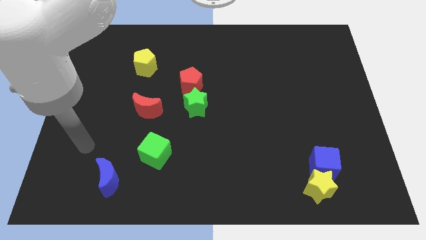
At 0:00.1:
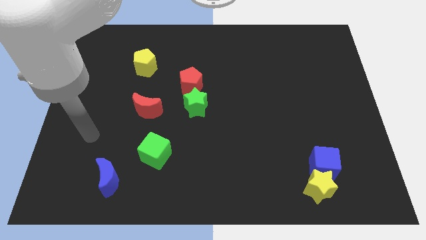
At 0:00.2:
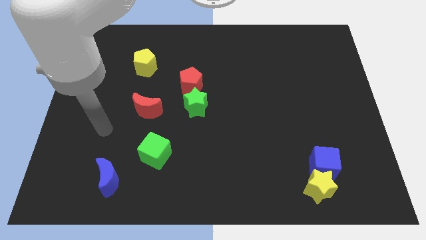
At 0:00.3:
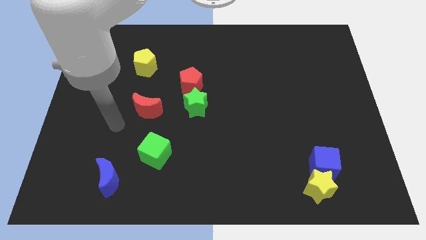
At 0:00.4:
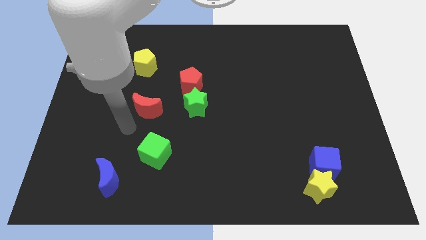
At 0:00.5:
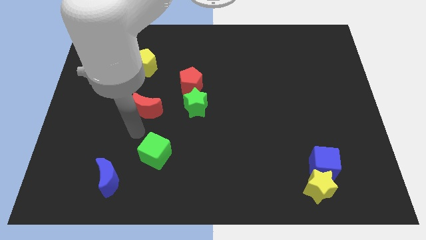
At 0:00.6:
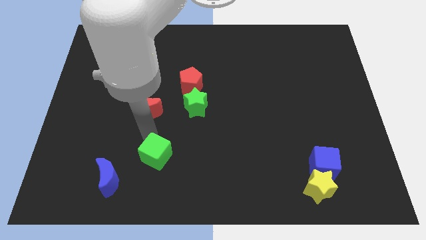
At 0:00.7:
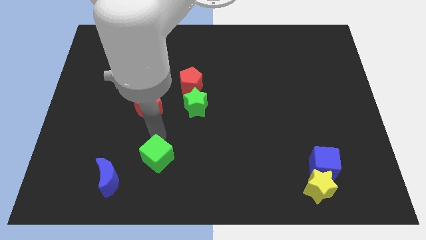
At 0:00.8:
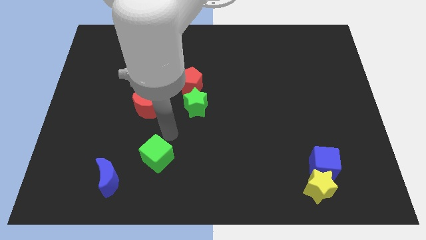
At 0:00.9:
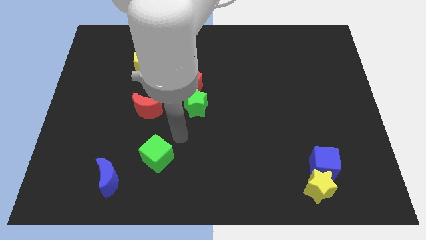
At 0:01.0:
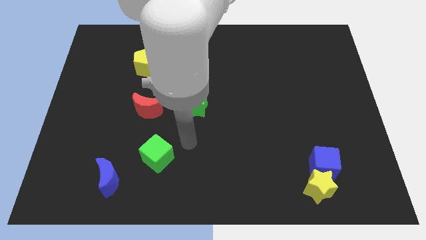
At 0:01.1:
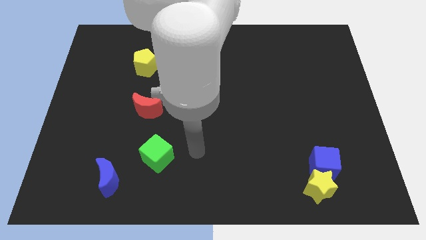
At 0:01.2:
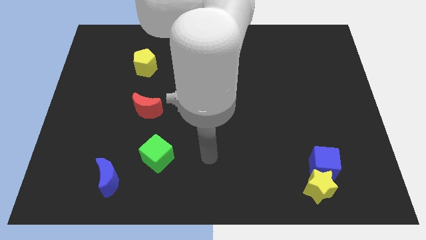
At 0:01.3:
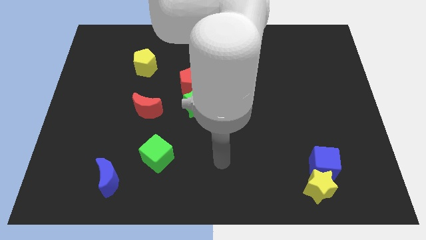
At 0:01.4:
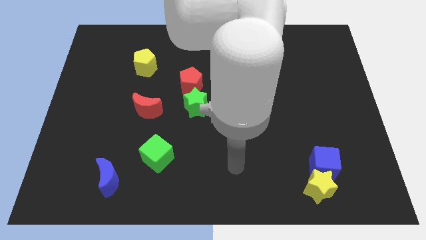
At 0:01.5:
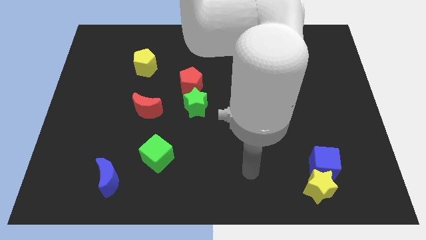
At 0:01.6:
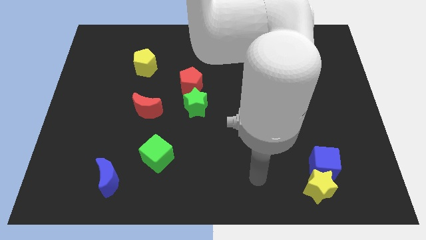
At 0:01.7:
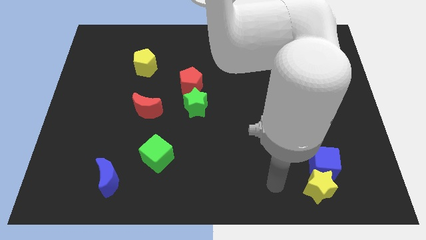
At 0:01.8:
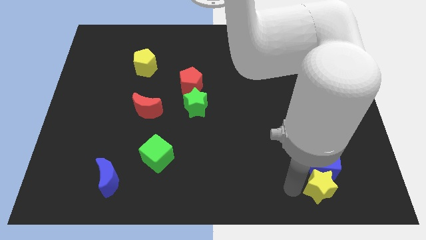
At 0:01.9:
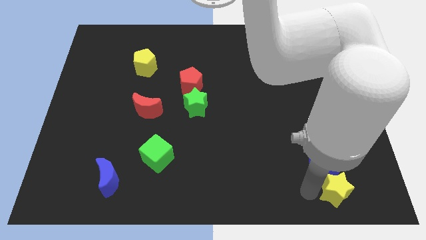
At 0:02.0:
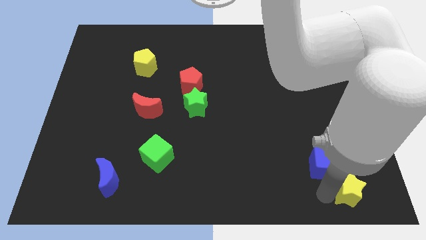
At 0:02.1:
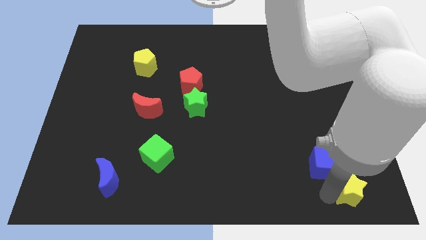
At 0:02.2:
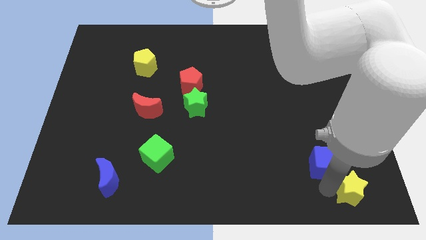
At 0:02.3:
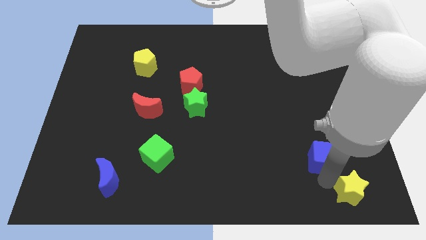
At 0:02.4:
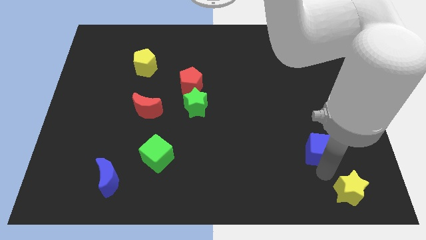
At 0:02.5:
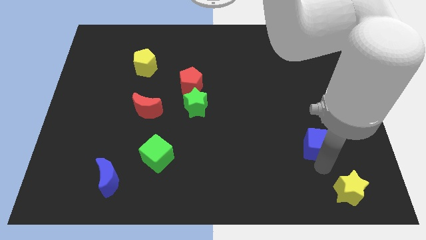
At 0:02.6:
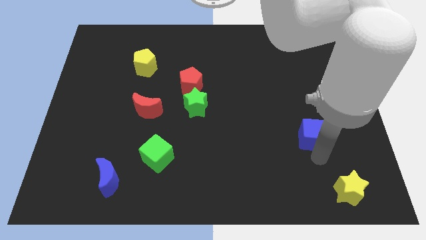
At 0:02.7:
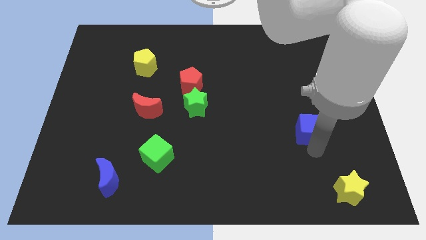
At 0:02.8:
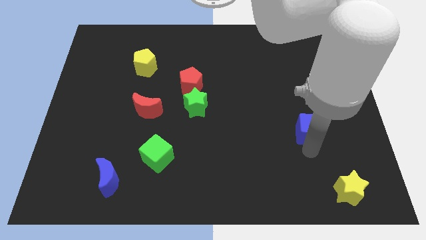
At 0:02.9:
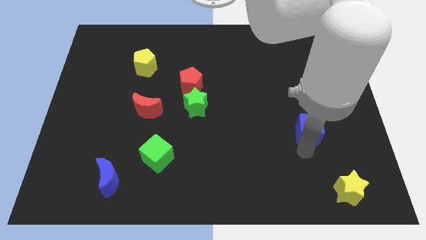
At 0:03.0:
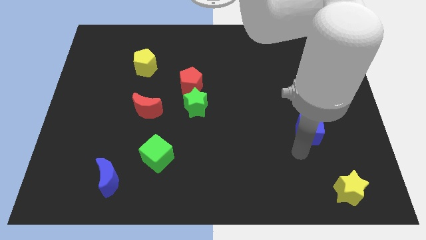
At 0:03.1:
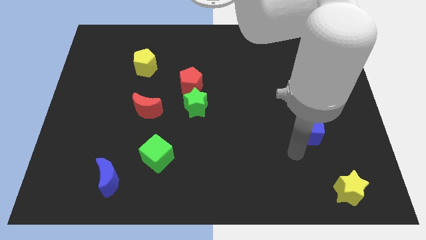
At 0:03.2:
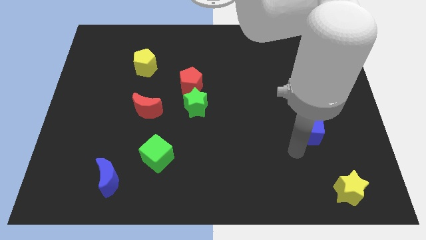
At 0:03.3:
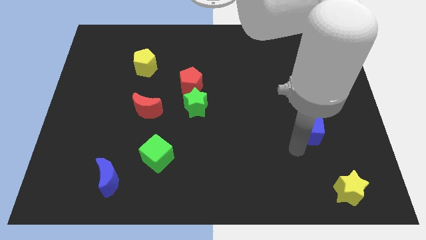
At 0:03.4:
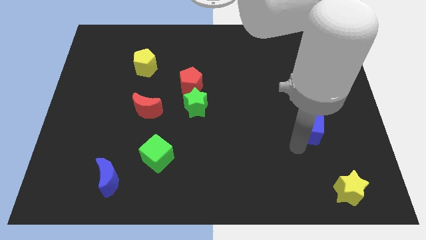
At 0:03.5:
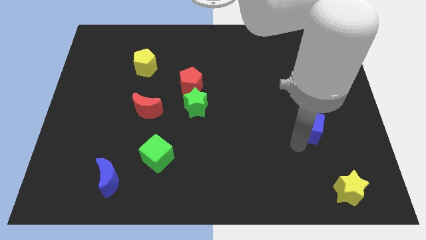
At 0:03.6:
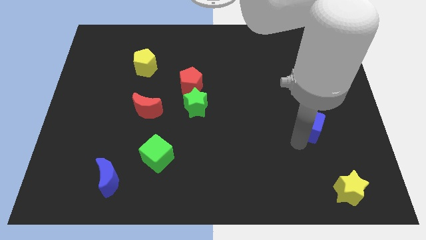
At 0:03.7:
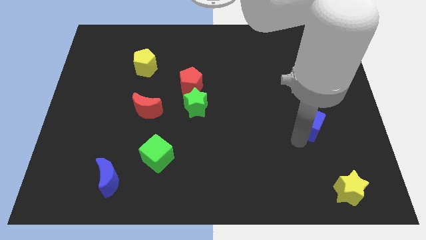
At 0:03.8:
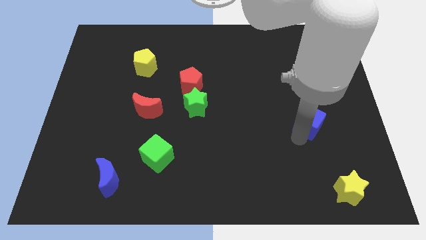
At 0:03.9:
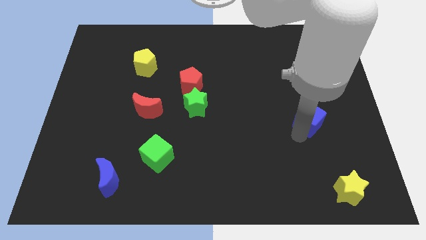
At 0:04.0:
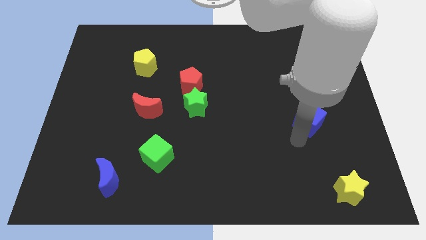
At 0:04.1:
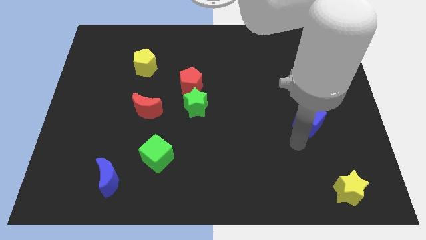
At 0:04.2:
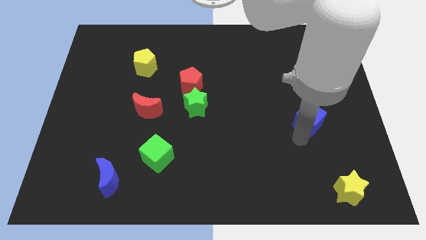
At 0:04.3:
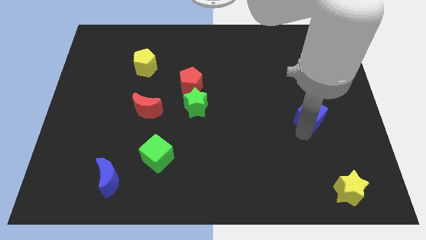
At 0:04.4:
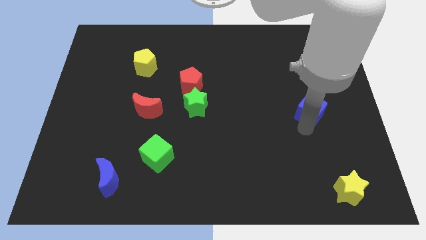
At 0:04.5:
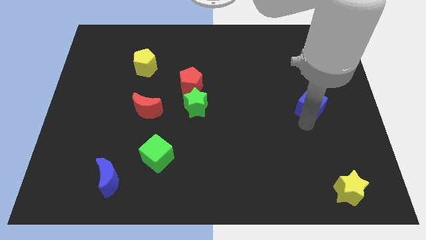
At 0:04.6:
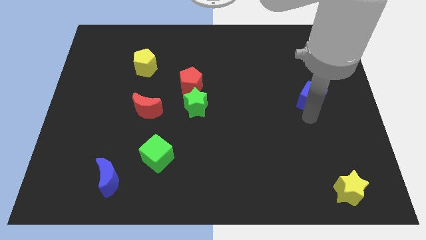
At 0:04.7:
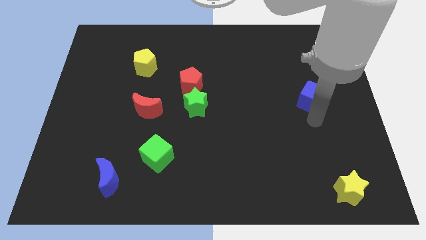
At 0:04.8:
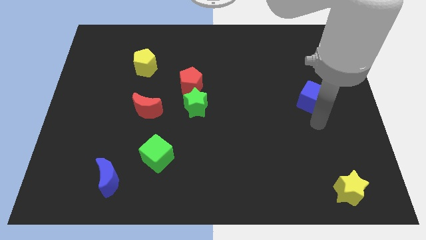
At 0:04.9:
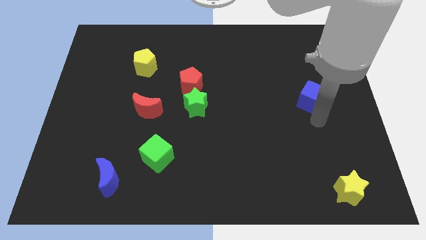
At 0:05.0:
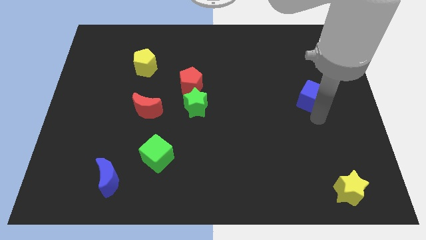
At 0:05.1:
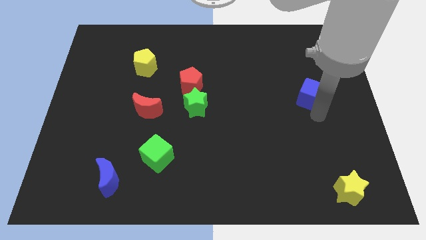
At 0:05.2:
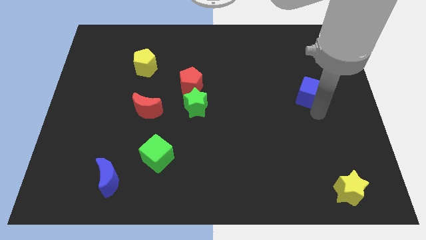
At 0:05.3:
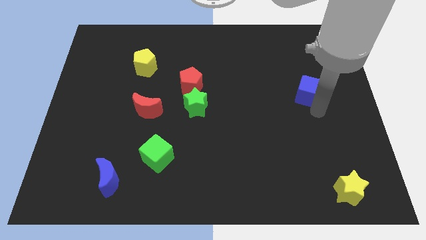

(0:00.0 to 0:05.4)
push the blue cube up

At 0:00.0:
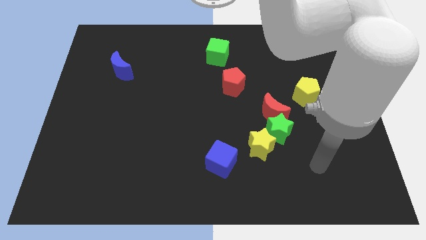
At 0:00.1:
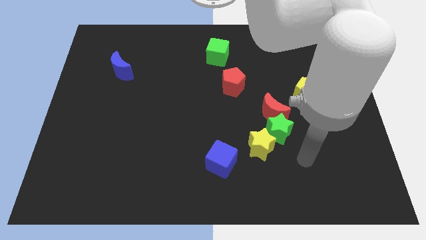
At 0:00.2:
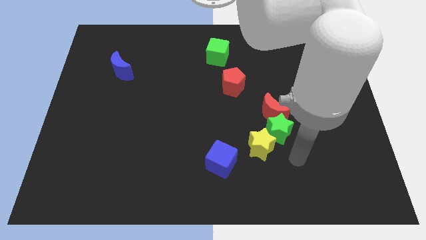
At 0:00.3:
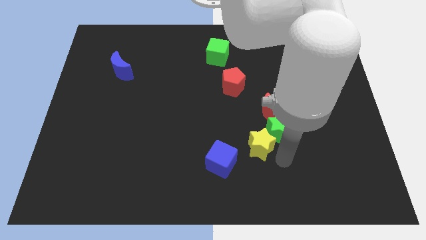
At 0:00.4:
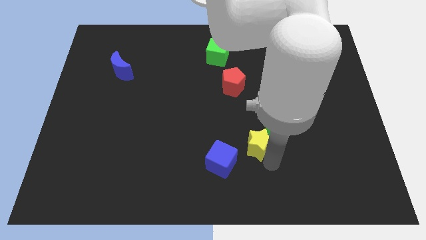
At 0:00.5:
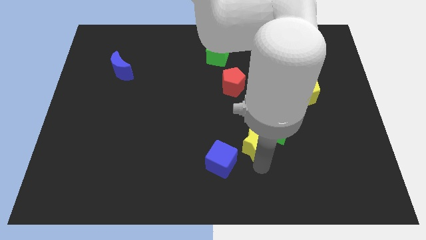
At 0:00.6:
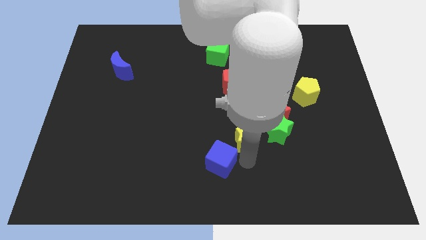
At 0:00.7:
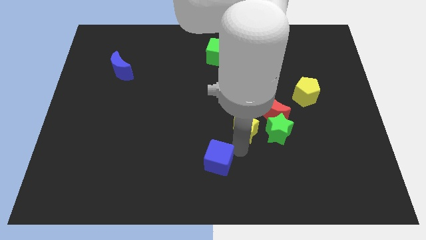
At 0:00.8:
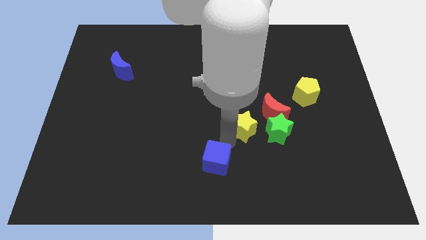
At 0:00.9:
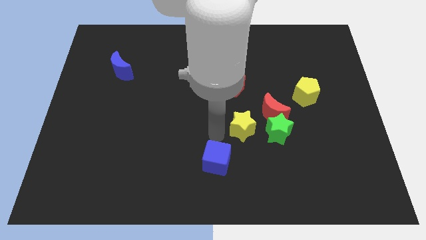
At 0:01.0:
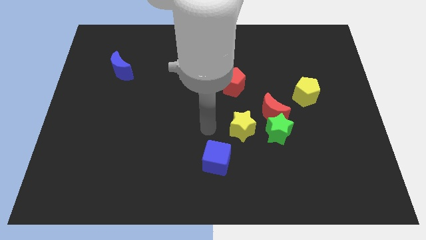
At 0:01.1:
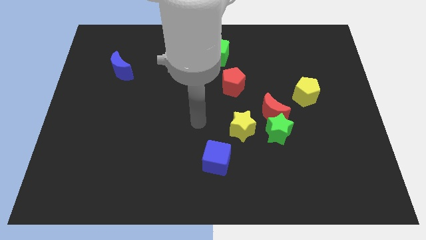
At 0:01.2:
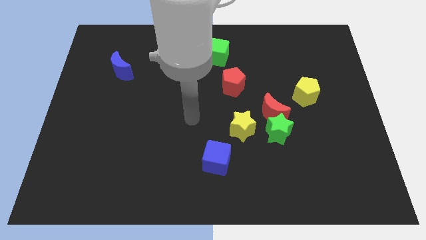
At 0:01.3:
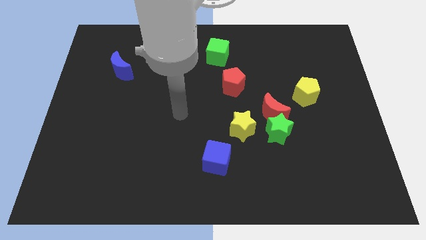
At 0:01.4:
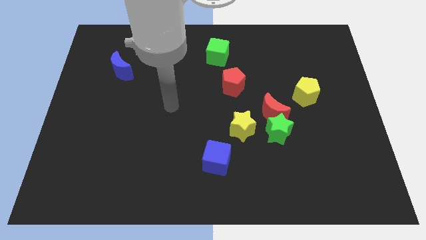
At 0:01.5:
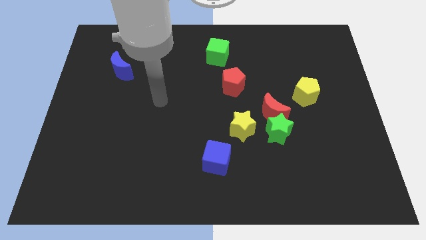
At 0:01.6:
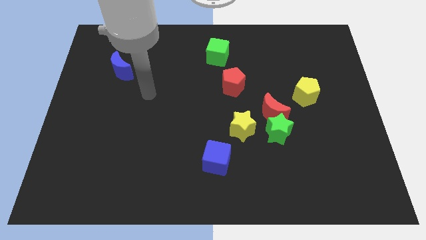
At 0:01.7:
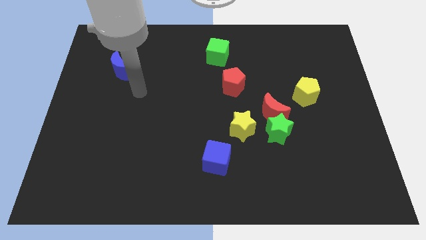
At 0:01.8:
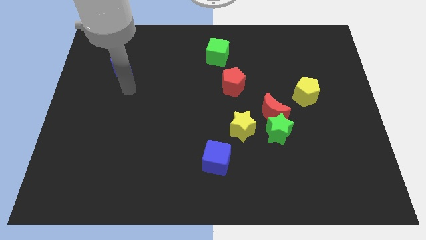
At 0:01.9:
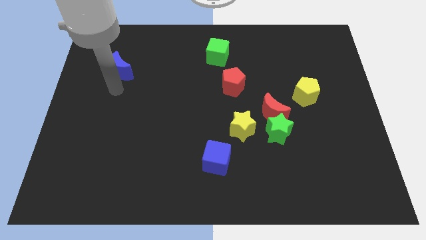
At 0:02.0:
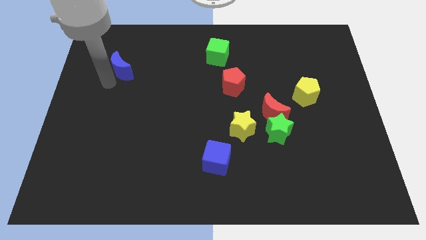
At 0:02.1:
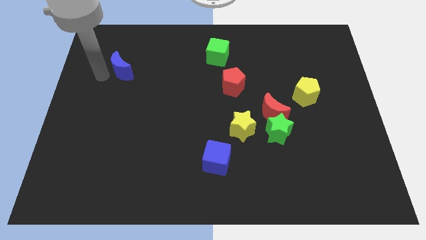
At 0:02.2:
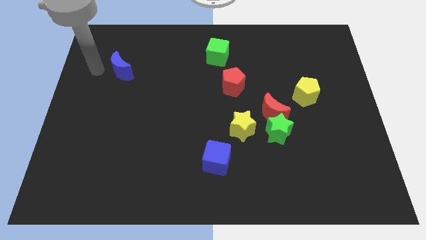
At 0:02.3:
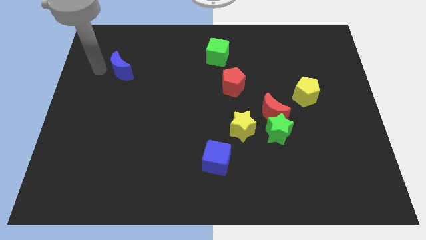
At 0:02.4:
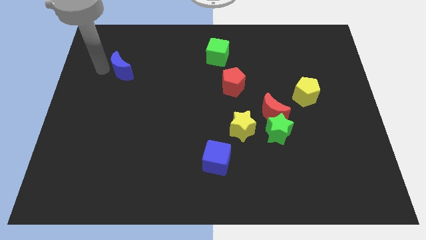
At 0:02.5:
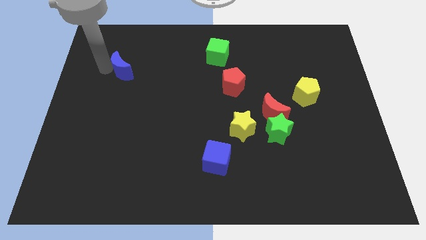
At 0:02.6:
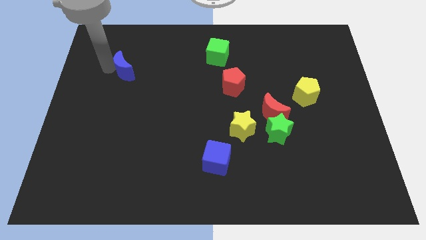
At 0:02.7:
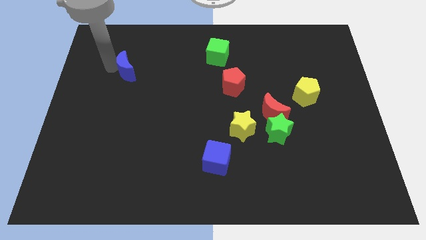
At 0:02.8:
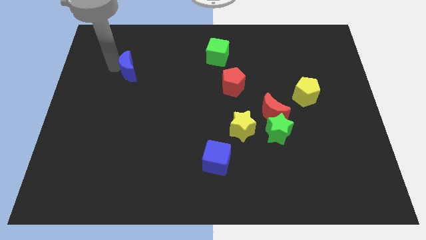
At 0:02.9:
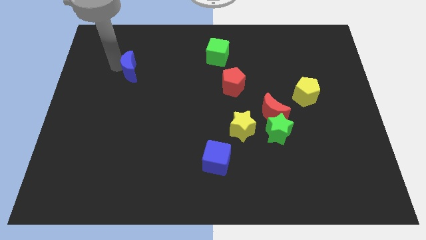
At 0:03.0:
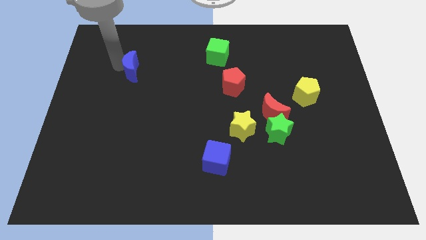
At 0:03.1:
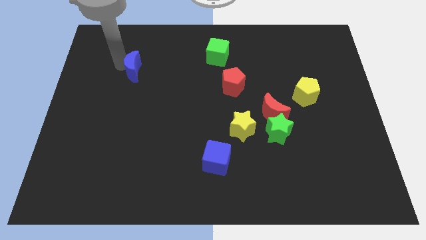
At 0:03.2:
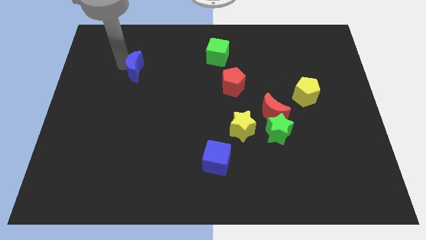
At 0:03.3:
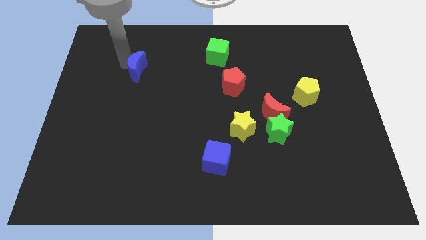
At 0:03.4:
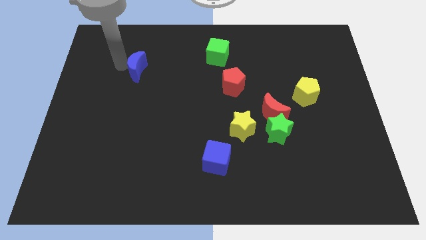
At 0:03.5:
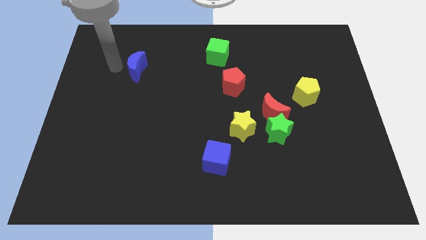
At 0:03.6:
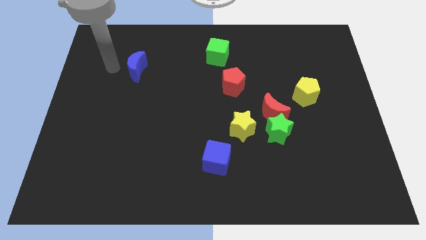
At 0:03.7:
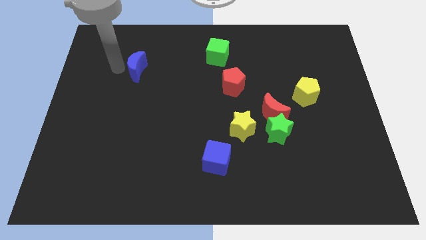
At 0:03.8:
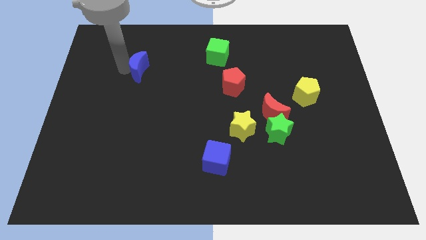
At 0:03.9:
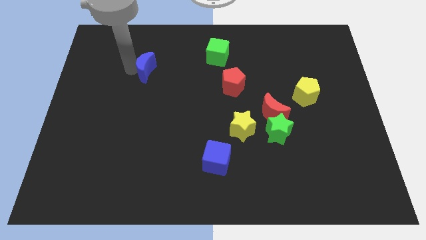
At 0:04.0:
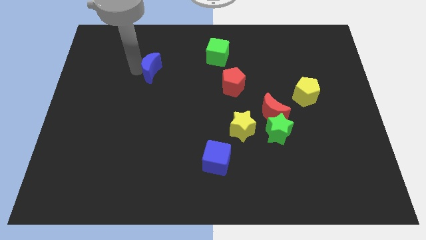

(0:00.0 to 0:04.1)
slightly move the blue moon to the right
